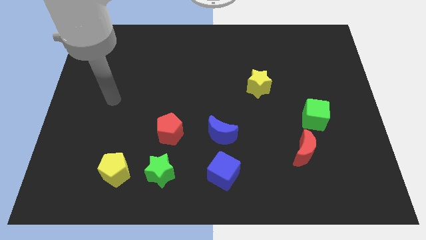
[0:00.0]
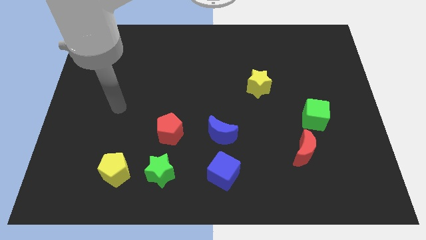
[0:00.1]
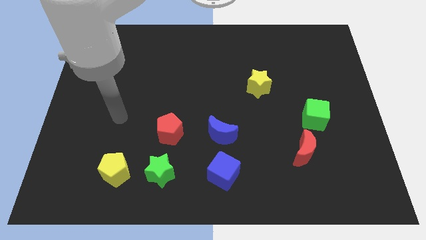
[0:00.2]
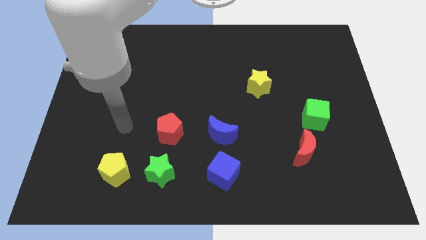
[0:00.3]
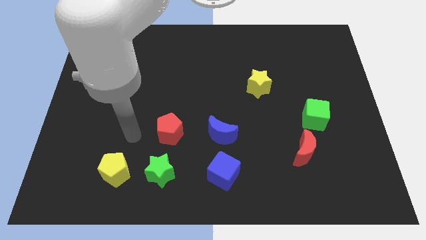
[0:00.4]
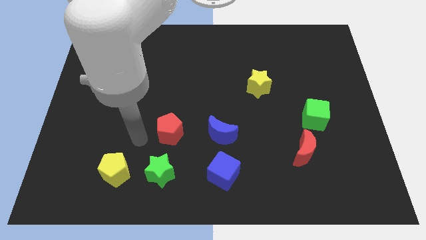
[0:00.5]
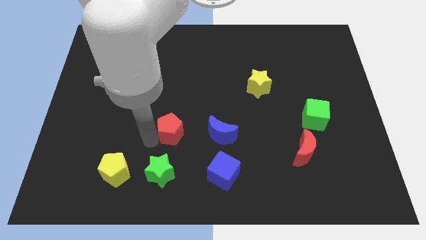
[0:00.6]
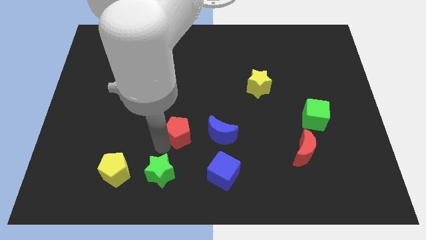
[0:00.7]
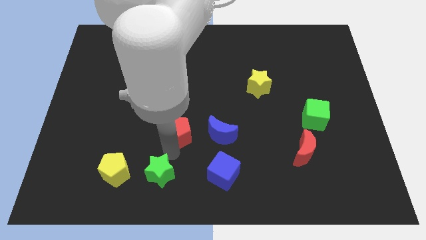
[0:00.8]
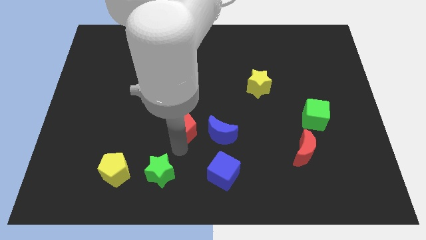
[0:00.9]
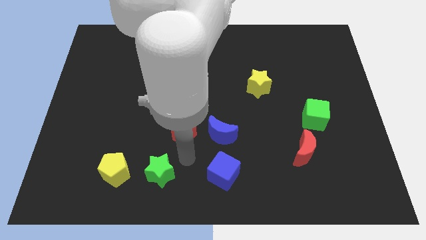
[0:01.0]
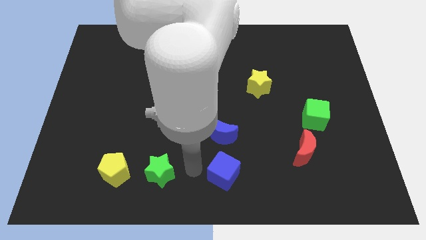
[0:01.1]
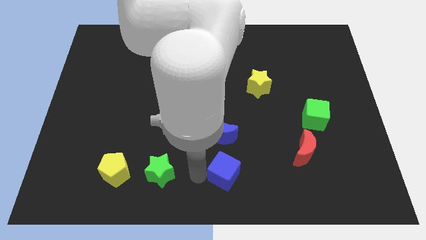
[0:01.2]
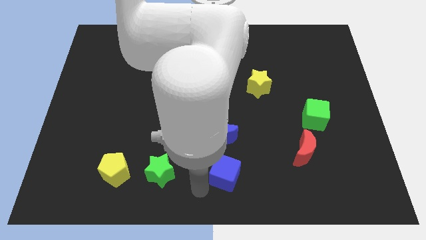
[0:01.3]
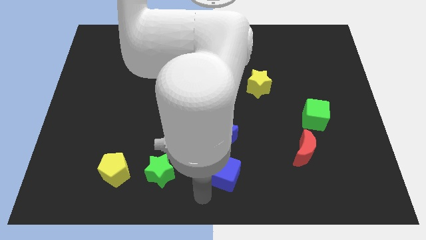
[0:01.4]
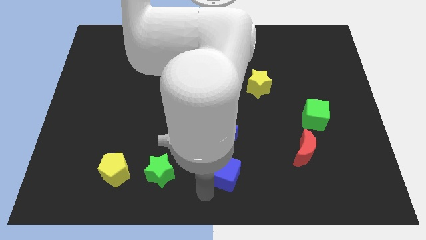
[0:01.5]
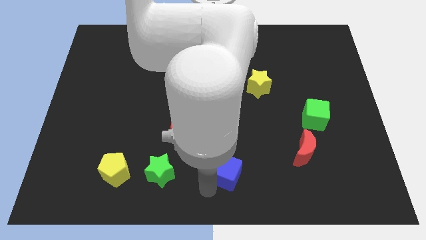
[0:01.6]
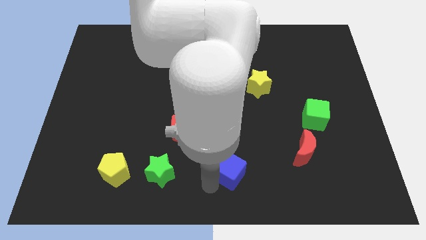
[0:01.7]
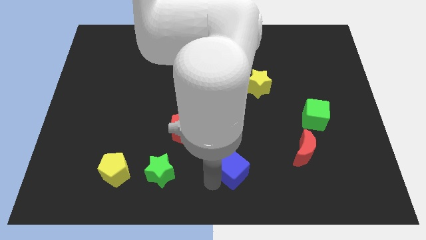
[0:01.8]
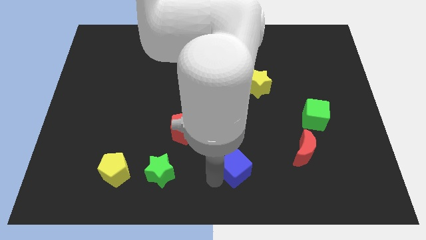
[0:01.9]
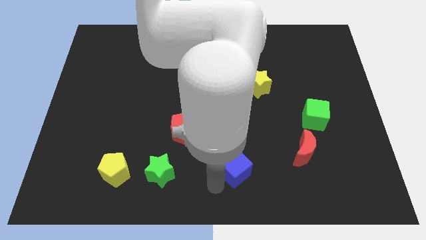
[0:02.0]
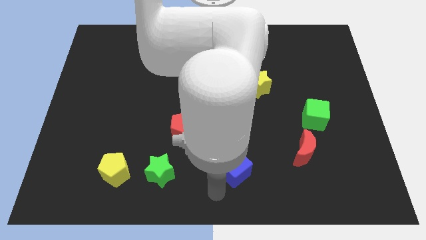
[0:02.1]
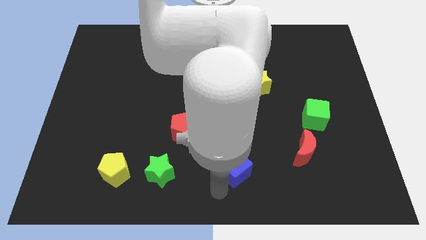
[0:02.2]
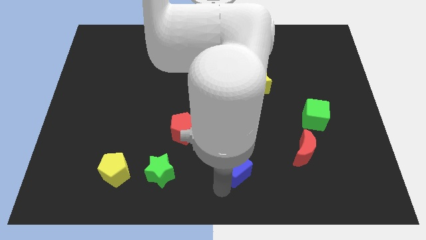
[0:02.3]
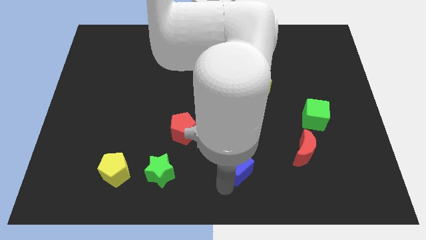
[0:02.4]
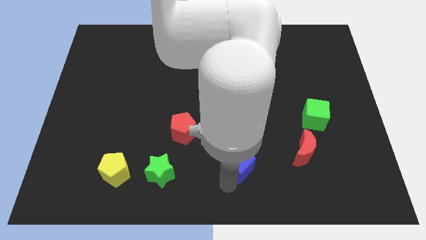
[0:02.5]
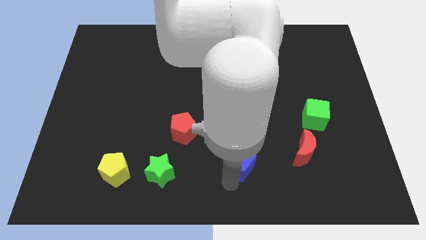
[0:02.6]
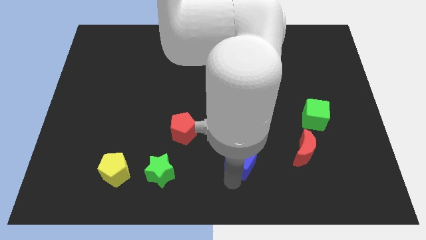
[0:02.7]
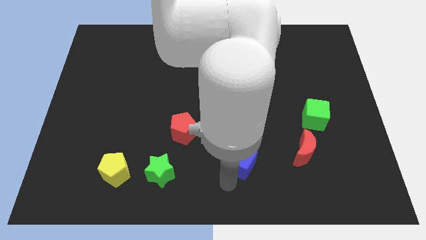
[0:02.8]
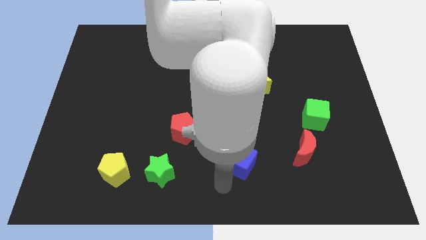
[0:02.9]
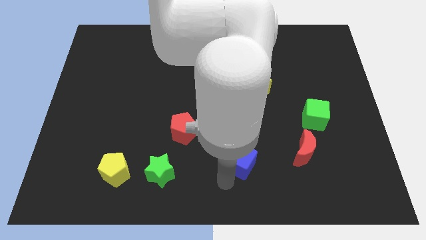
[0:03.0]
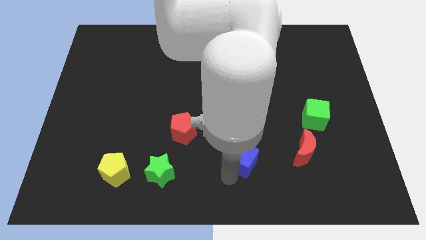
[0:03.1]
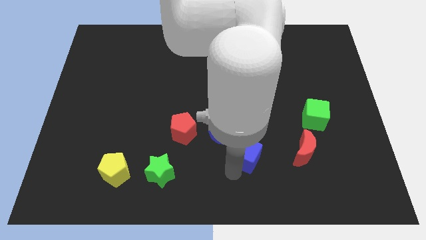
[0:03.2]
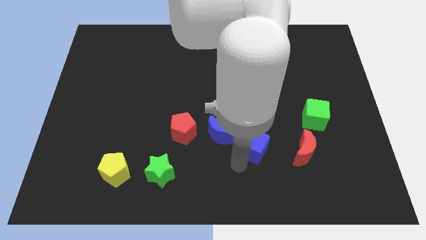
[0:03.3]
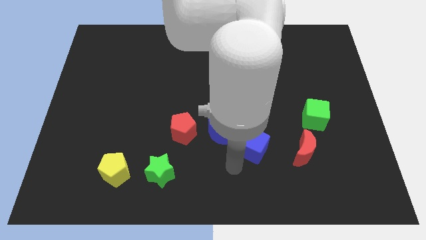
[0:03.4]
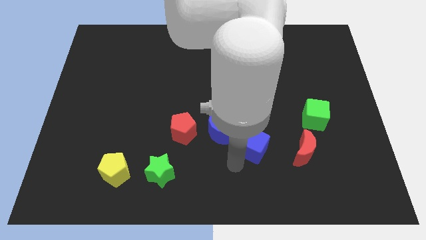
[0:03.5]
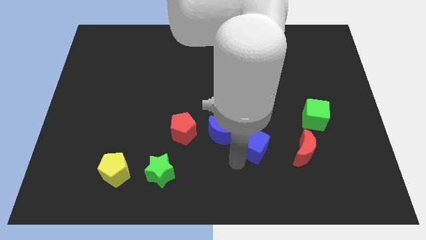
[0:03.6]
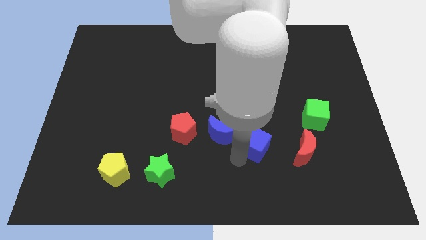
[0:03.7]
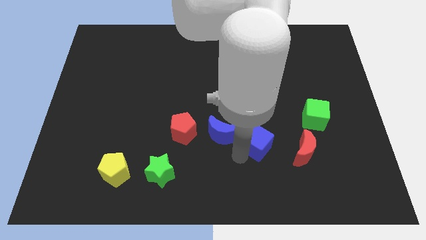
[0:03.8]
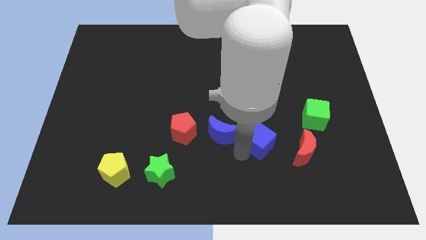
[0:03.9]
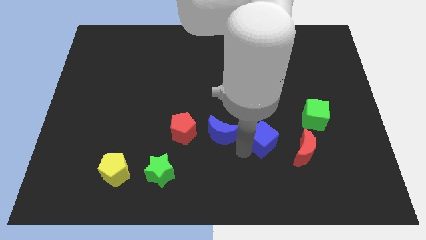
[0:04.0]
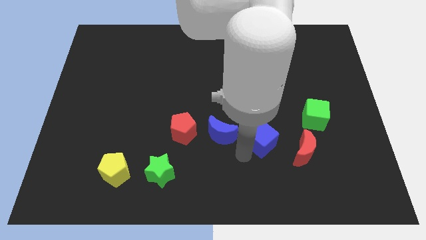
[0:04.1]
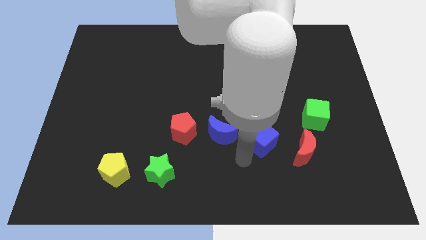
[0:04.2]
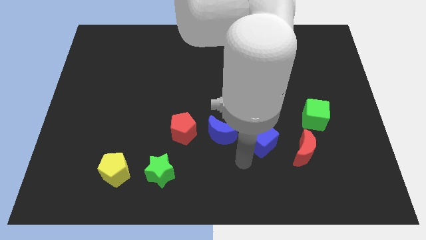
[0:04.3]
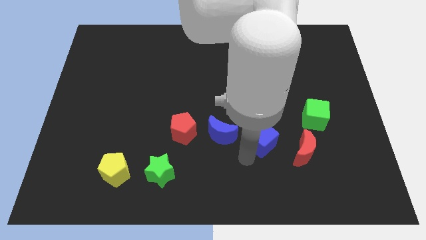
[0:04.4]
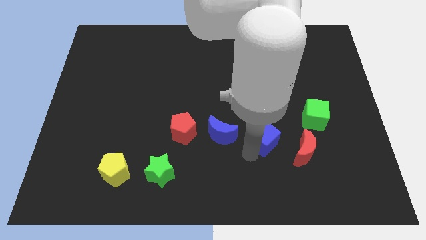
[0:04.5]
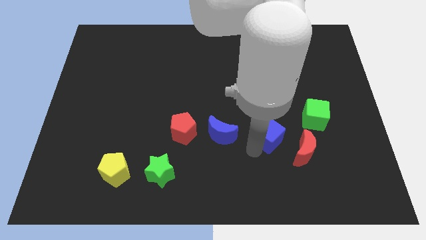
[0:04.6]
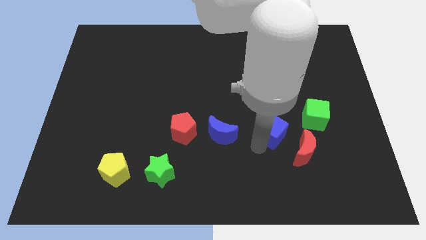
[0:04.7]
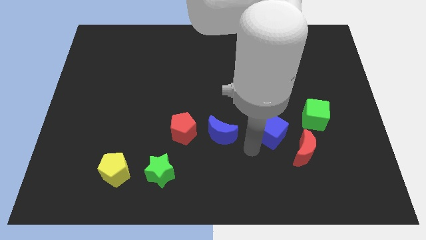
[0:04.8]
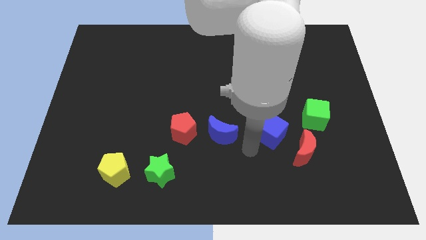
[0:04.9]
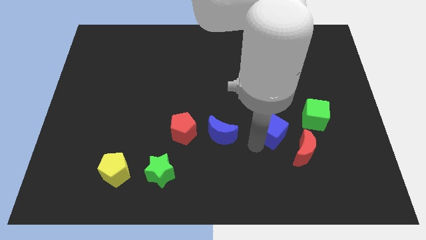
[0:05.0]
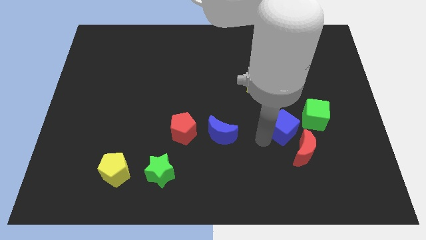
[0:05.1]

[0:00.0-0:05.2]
put the blue cube above the red moon

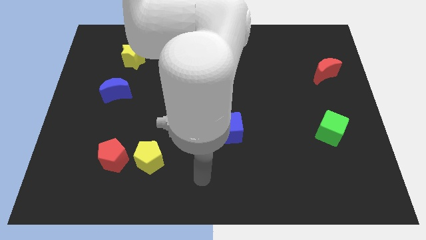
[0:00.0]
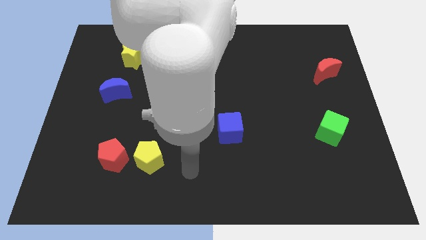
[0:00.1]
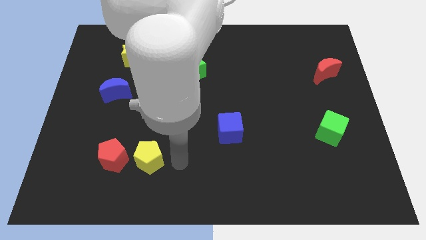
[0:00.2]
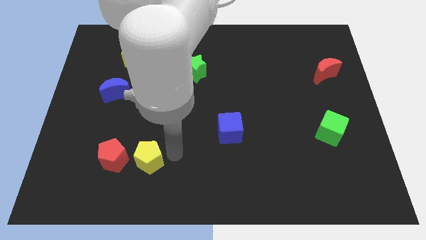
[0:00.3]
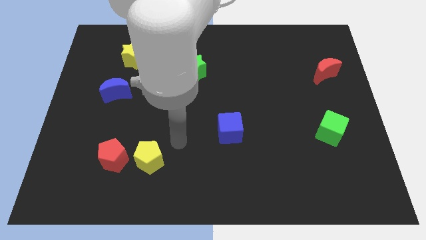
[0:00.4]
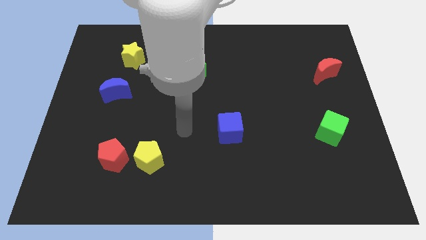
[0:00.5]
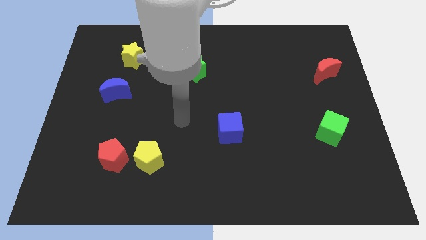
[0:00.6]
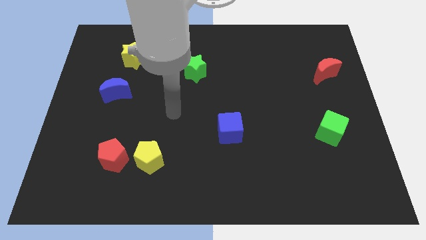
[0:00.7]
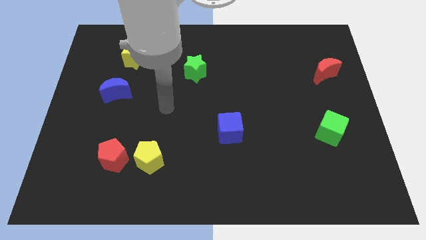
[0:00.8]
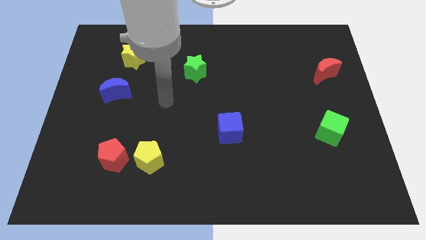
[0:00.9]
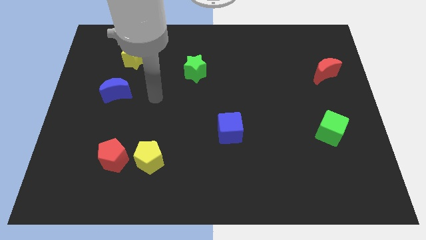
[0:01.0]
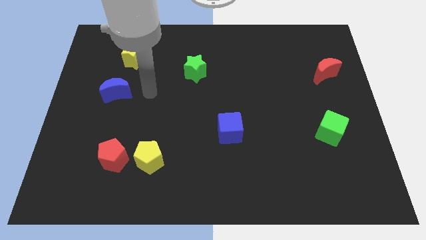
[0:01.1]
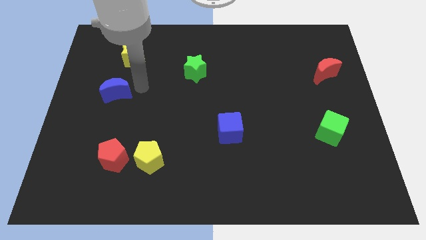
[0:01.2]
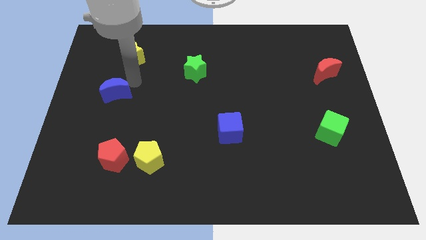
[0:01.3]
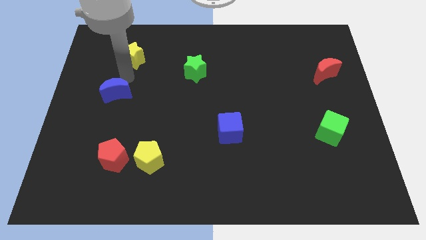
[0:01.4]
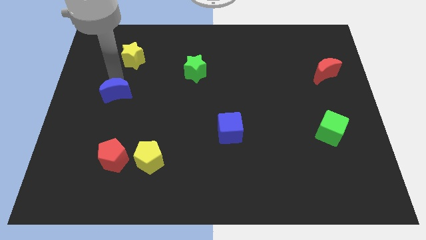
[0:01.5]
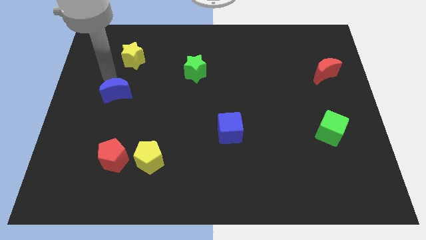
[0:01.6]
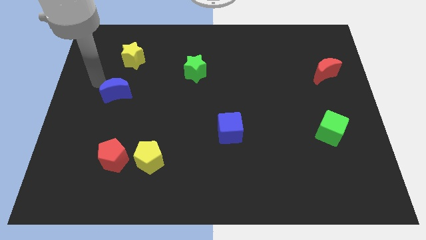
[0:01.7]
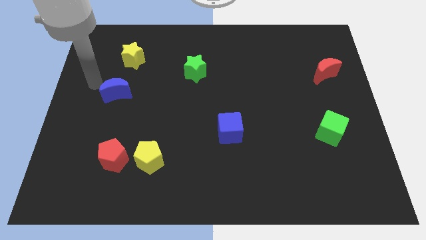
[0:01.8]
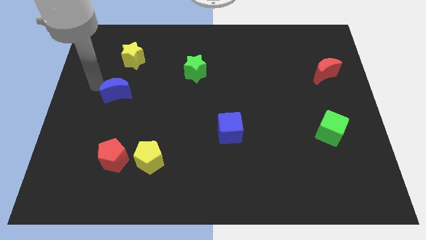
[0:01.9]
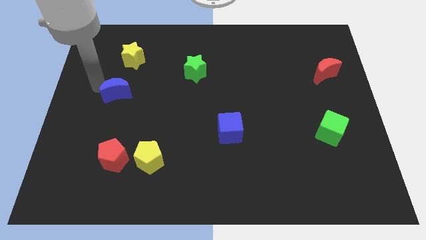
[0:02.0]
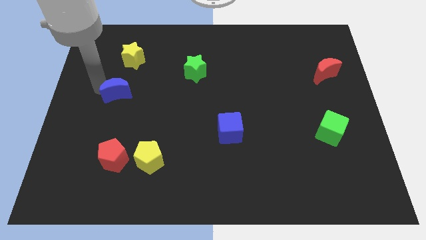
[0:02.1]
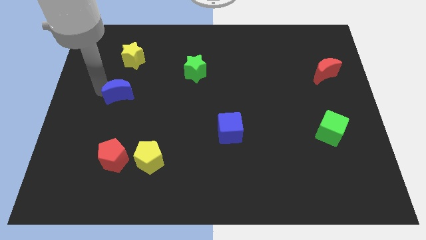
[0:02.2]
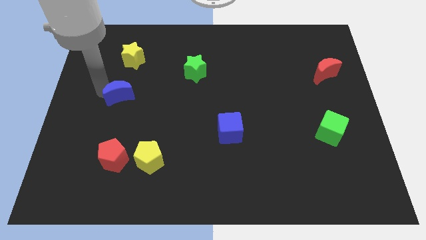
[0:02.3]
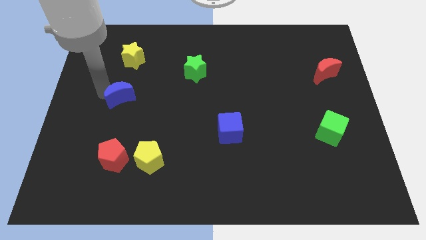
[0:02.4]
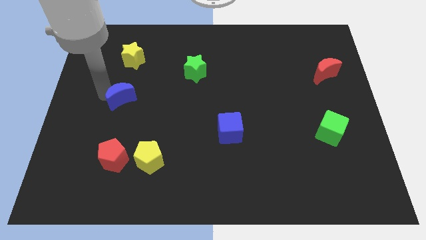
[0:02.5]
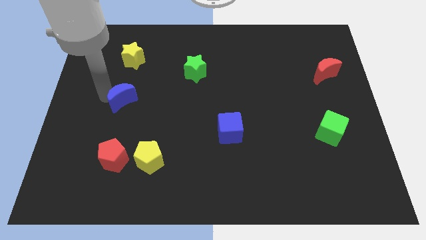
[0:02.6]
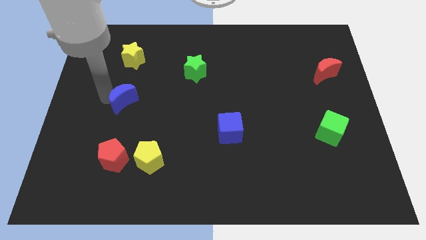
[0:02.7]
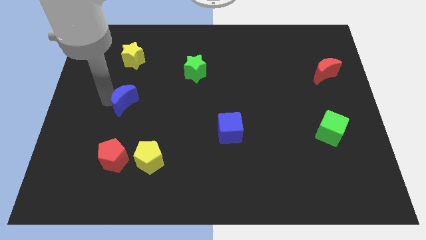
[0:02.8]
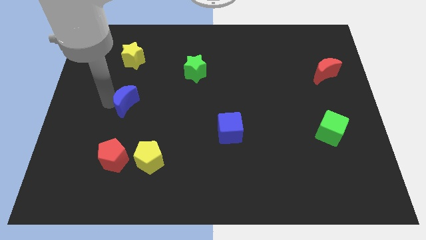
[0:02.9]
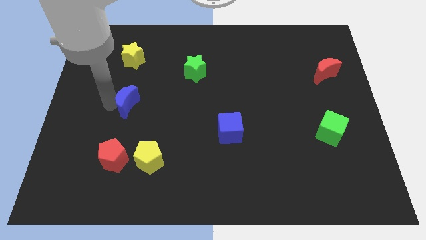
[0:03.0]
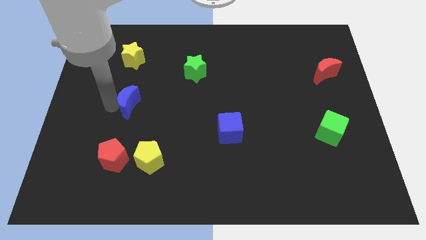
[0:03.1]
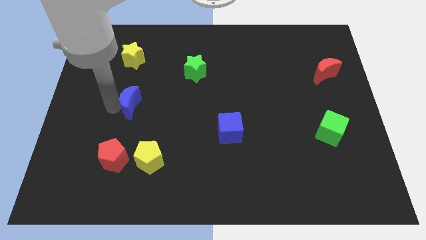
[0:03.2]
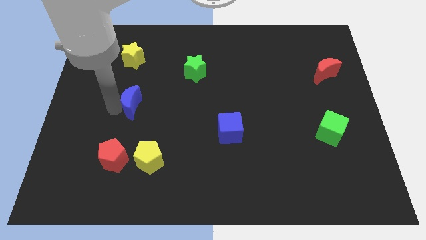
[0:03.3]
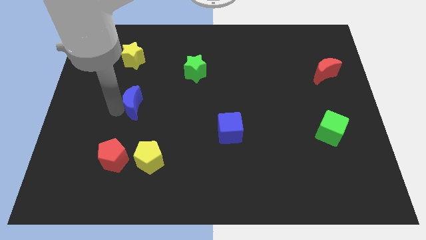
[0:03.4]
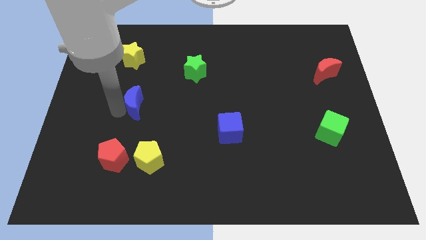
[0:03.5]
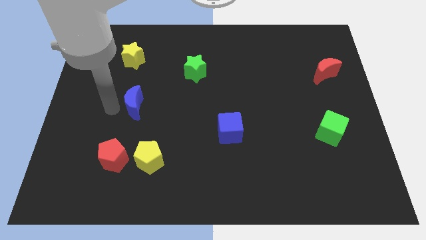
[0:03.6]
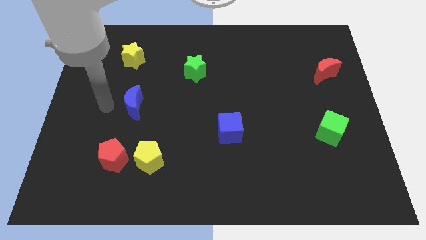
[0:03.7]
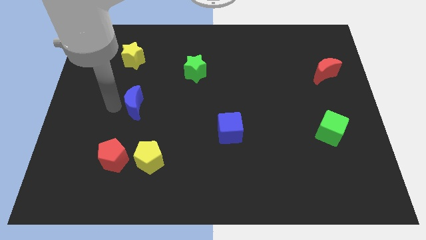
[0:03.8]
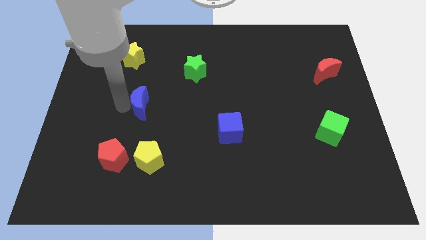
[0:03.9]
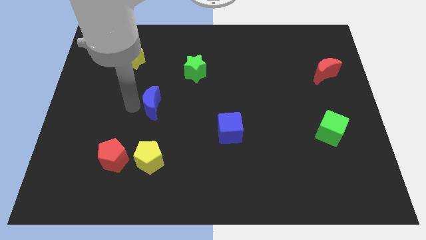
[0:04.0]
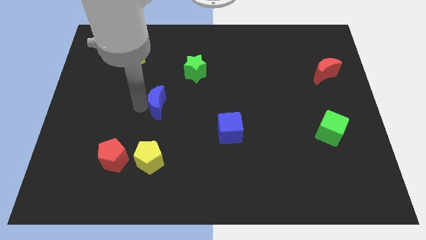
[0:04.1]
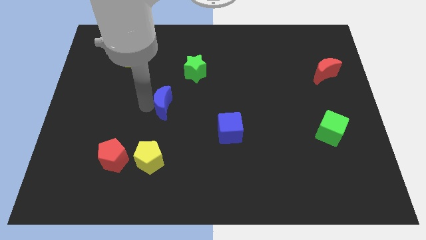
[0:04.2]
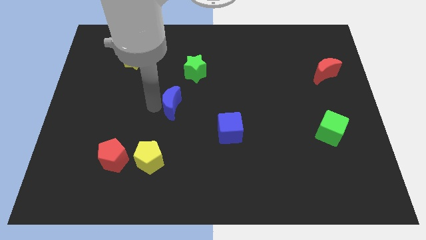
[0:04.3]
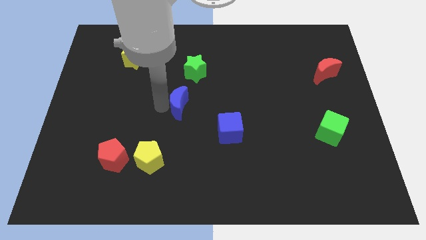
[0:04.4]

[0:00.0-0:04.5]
move the blue moon below the green star
